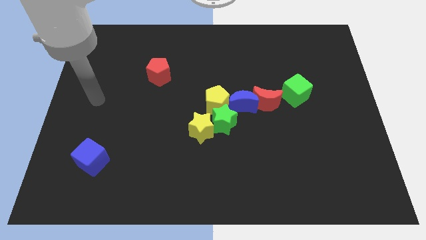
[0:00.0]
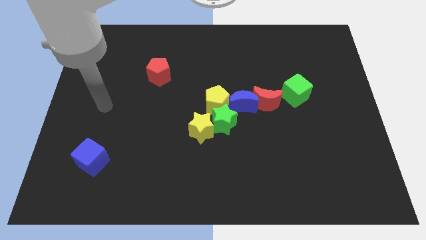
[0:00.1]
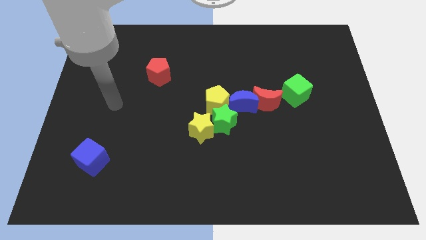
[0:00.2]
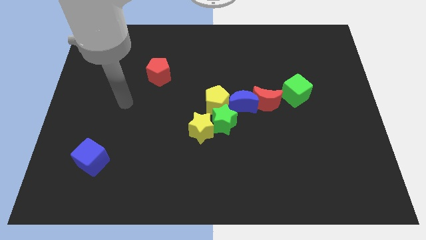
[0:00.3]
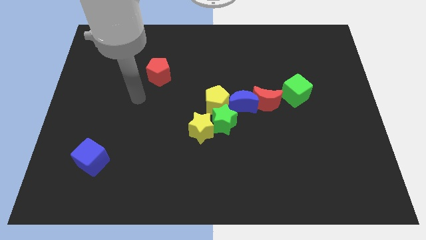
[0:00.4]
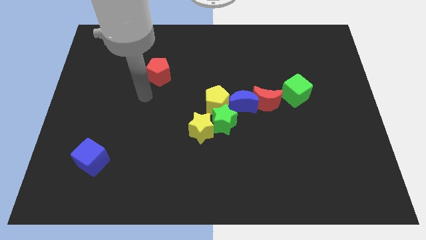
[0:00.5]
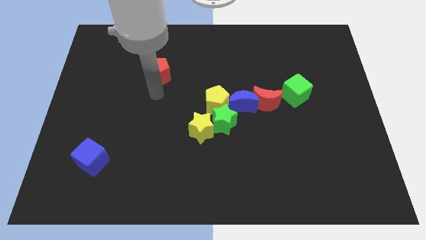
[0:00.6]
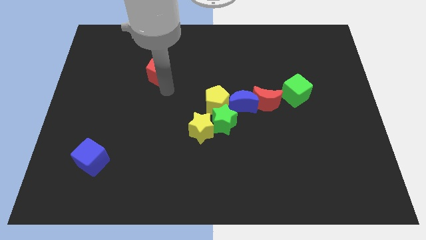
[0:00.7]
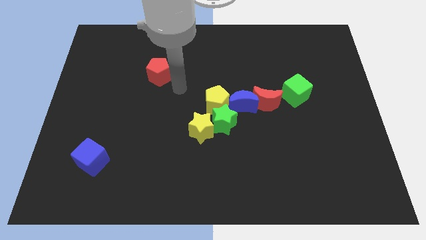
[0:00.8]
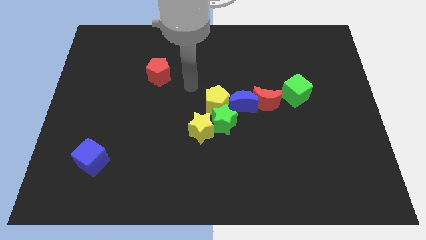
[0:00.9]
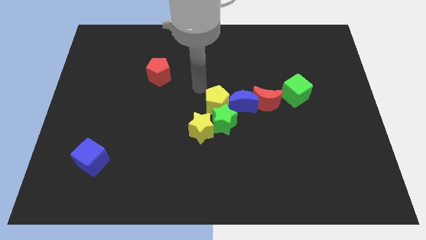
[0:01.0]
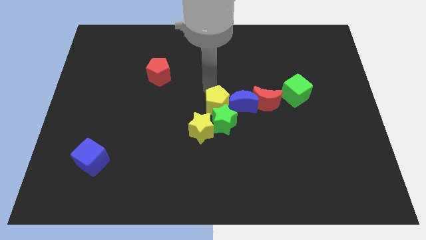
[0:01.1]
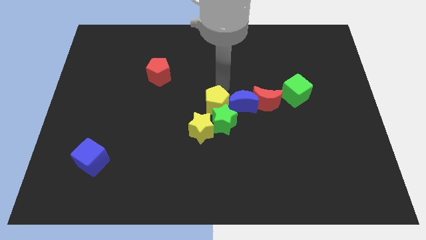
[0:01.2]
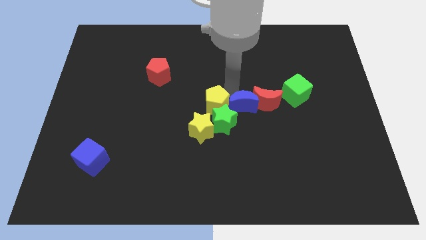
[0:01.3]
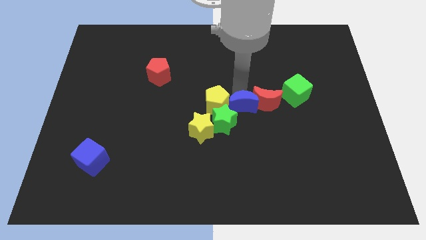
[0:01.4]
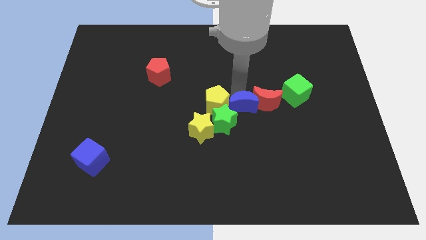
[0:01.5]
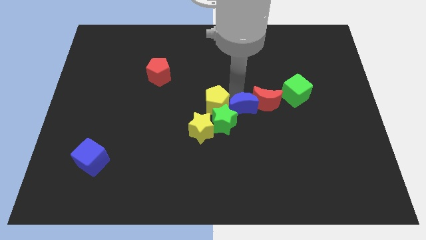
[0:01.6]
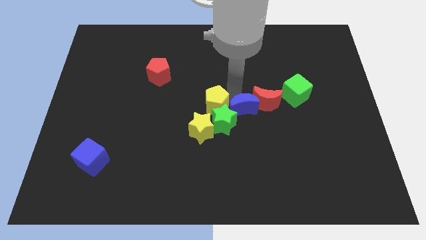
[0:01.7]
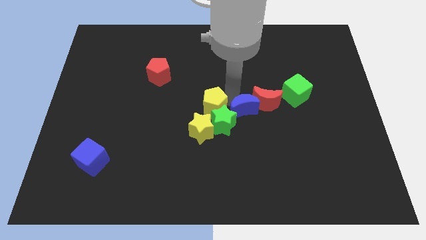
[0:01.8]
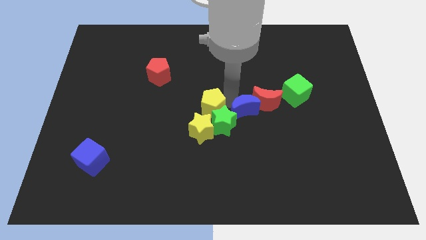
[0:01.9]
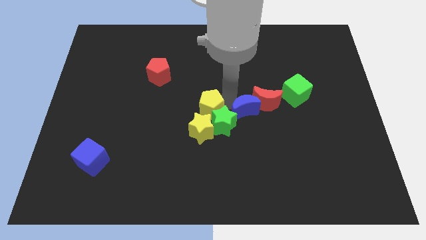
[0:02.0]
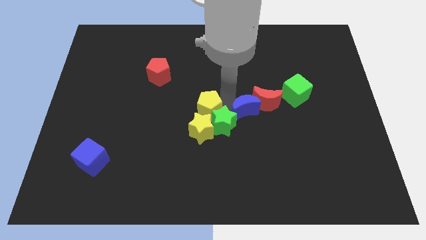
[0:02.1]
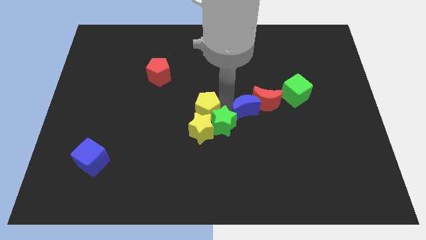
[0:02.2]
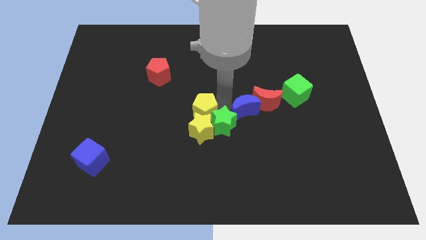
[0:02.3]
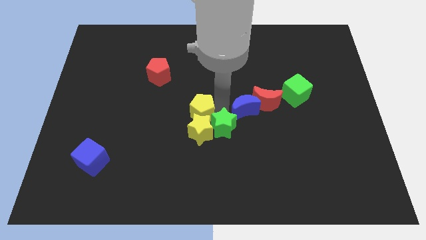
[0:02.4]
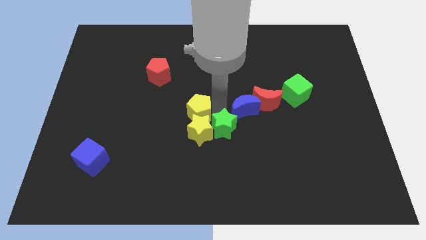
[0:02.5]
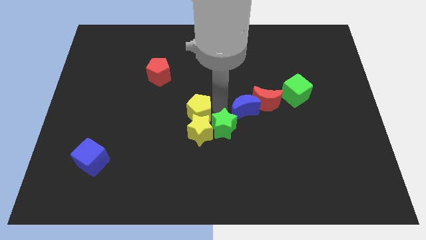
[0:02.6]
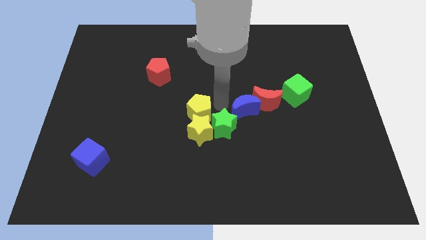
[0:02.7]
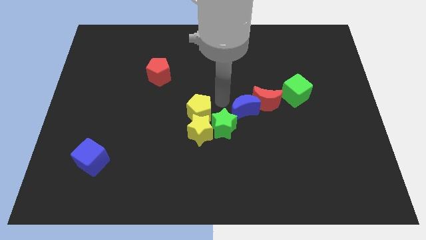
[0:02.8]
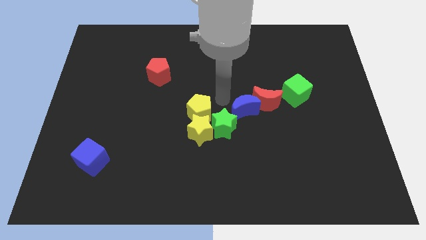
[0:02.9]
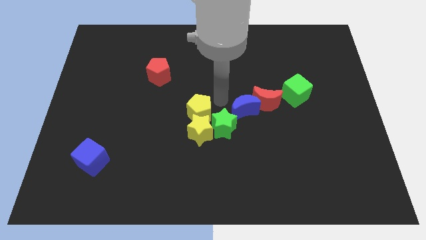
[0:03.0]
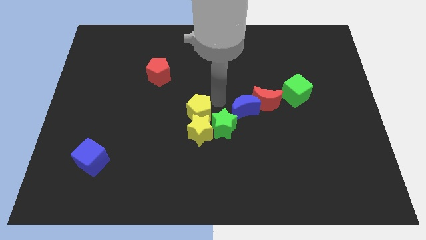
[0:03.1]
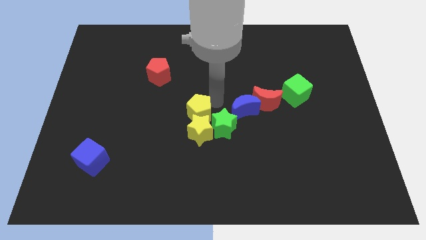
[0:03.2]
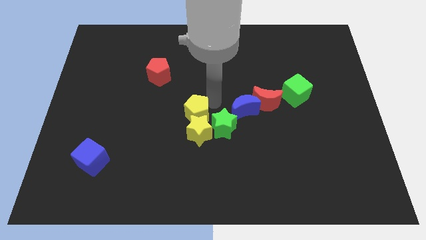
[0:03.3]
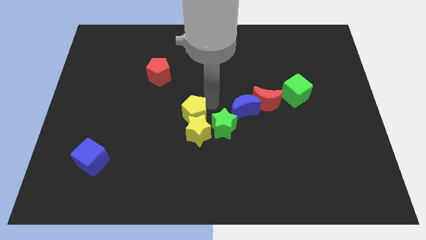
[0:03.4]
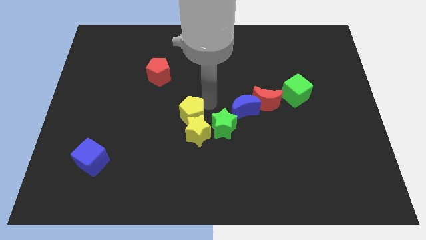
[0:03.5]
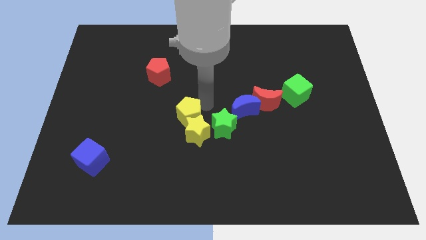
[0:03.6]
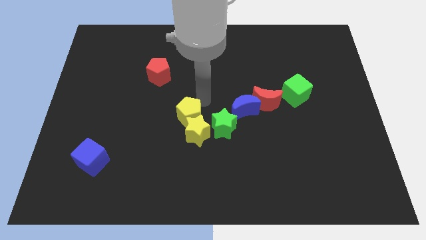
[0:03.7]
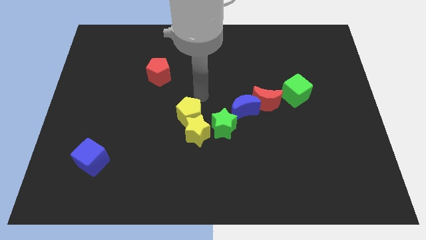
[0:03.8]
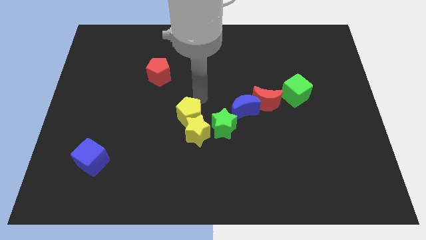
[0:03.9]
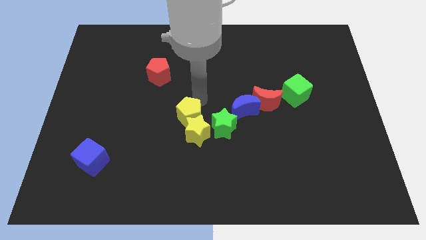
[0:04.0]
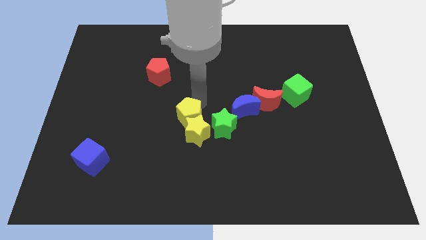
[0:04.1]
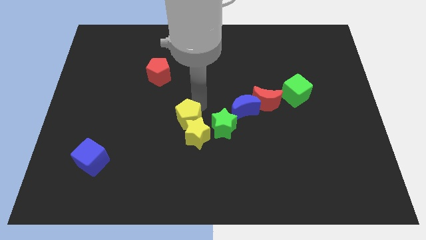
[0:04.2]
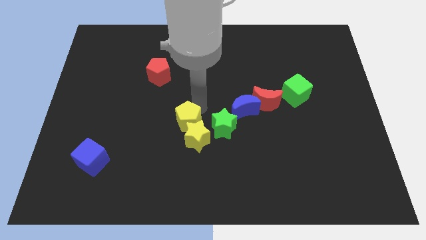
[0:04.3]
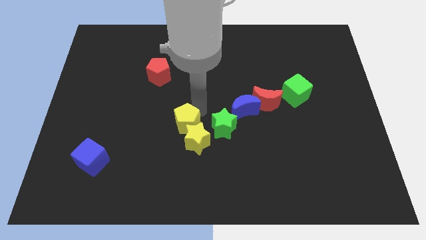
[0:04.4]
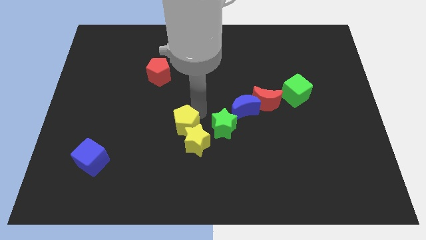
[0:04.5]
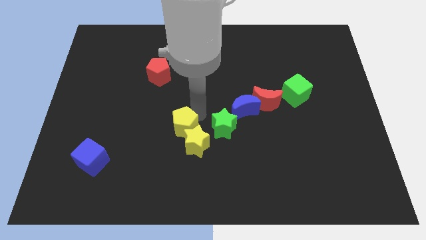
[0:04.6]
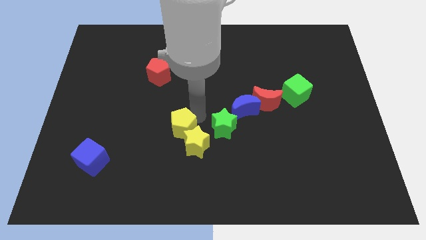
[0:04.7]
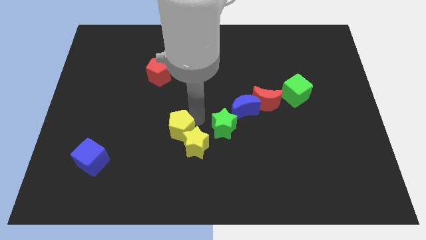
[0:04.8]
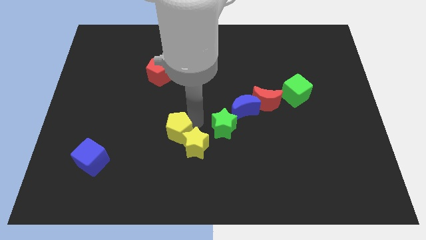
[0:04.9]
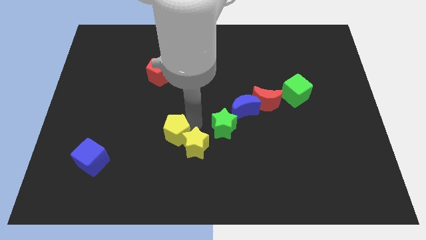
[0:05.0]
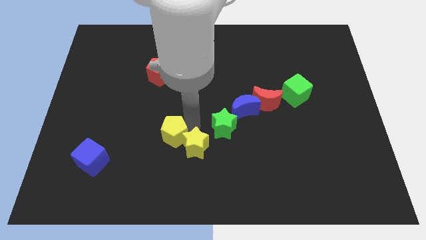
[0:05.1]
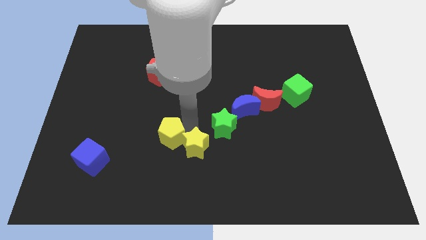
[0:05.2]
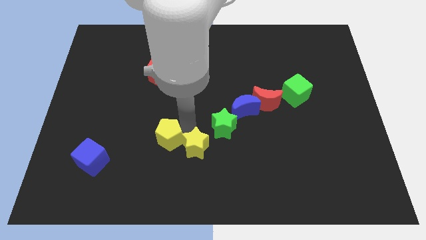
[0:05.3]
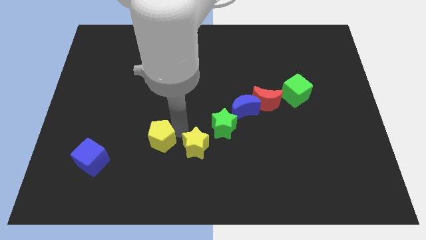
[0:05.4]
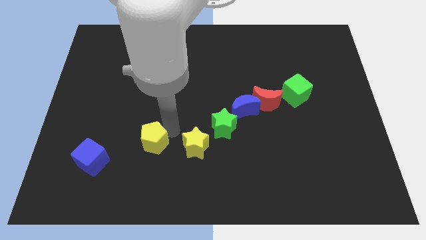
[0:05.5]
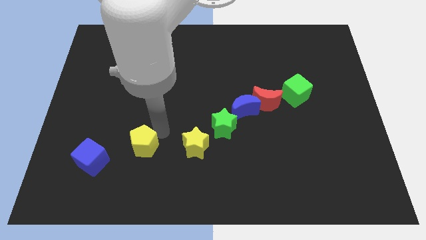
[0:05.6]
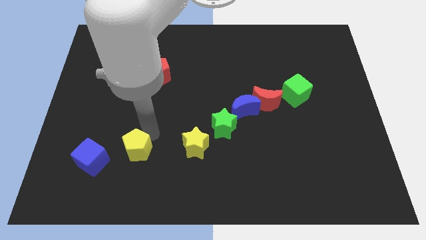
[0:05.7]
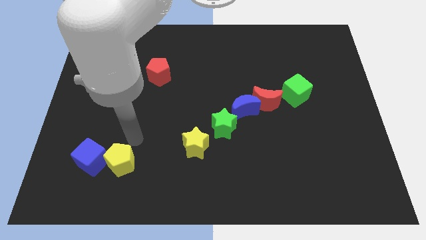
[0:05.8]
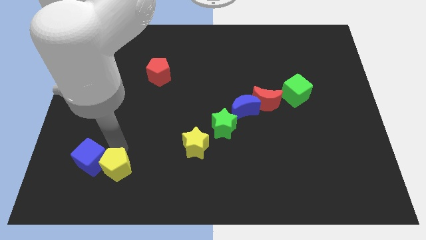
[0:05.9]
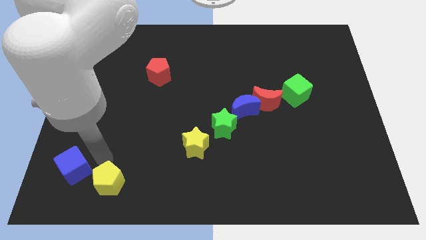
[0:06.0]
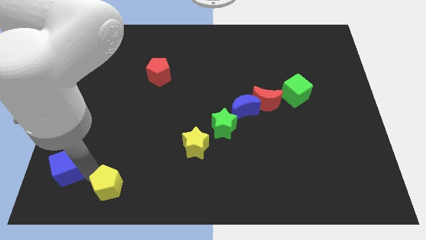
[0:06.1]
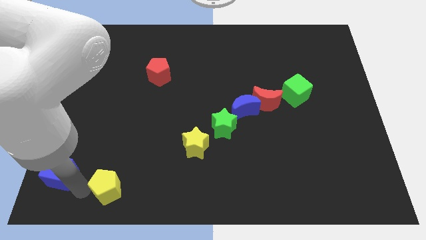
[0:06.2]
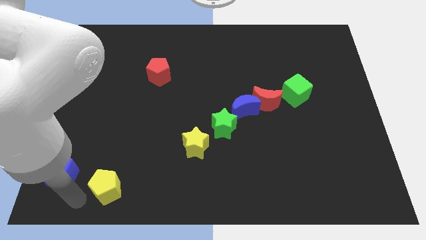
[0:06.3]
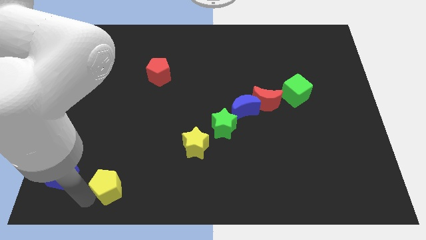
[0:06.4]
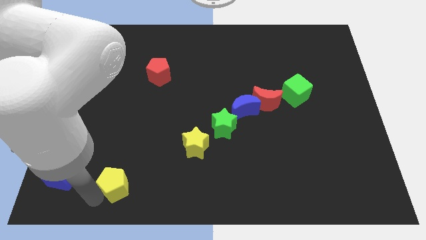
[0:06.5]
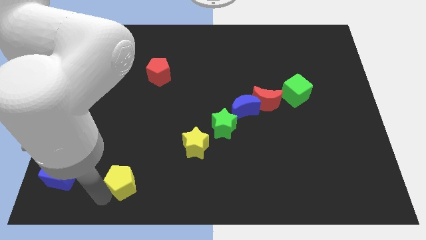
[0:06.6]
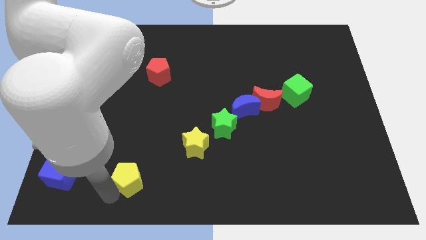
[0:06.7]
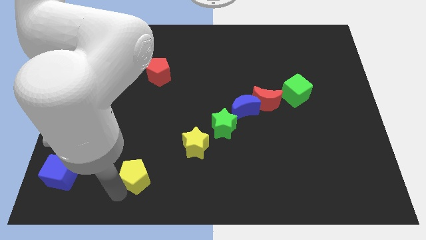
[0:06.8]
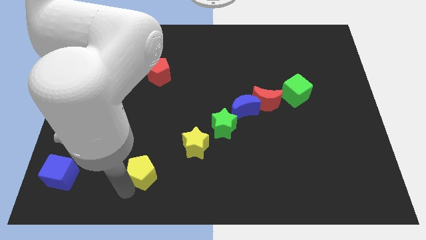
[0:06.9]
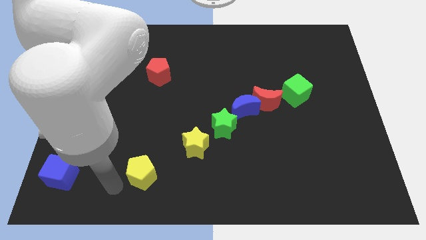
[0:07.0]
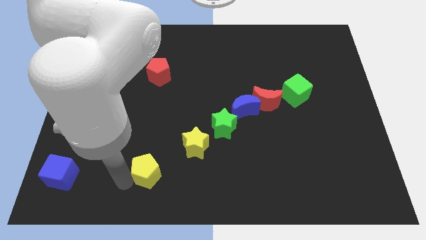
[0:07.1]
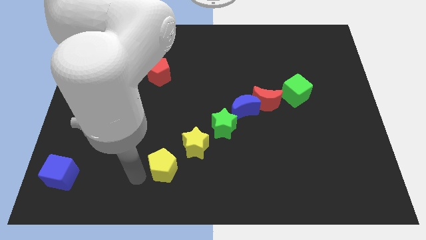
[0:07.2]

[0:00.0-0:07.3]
move the yellow pentagon somewhat downwards

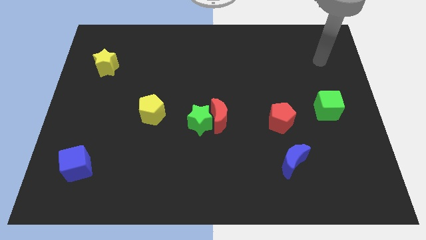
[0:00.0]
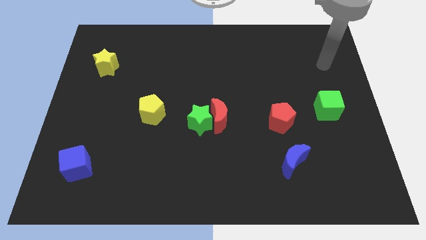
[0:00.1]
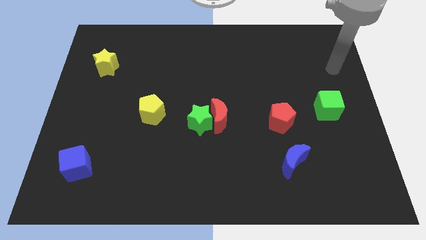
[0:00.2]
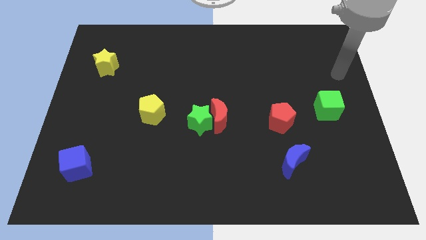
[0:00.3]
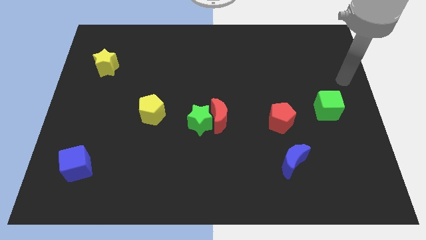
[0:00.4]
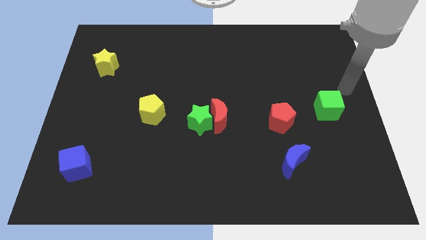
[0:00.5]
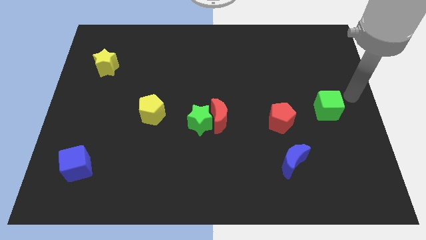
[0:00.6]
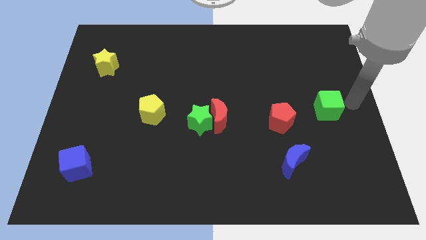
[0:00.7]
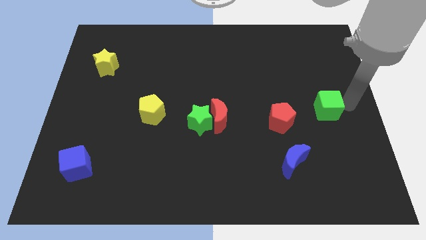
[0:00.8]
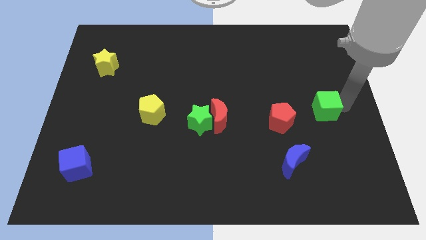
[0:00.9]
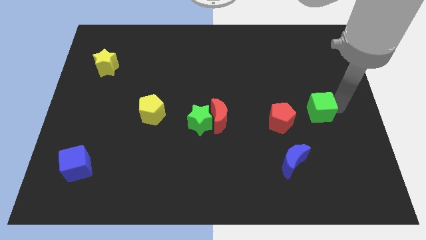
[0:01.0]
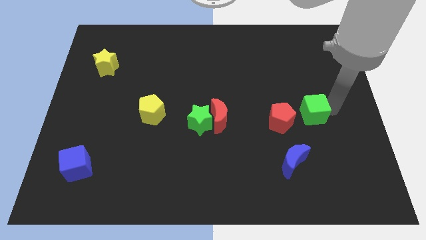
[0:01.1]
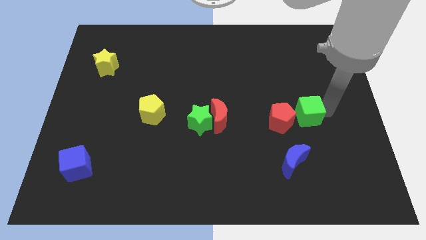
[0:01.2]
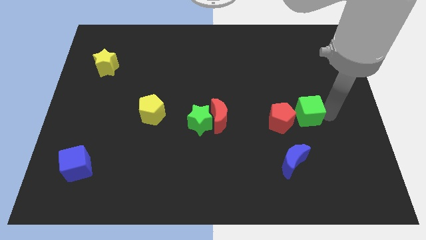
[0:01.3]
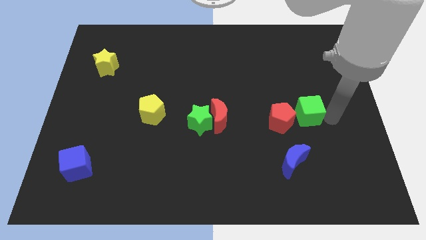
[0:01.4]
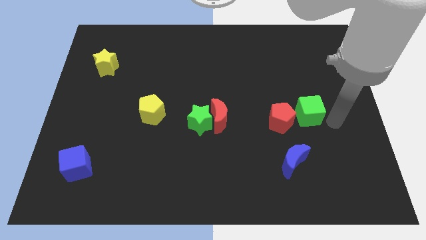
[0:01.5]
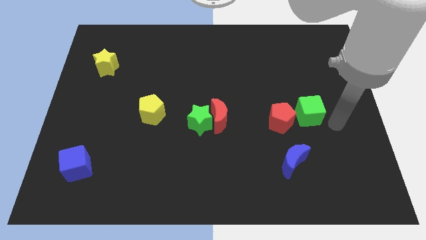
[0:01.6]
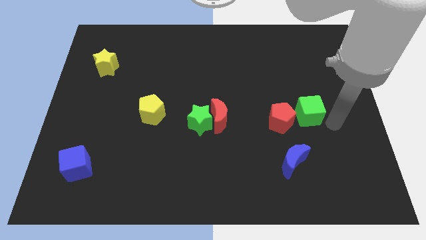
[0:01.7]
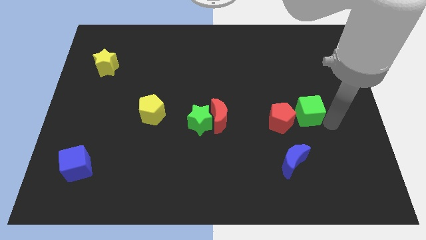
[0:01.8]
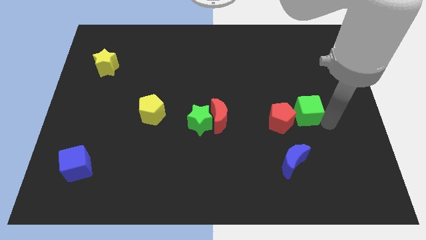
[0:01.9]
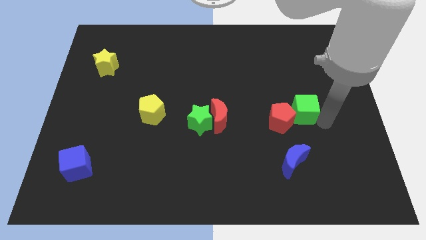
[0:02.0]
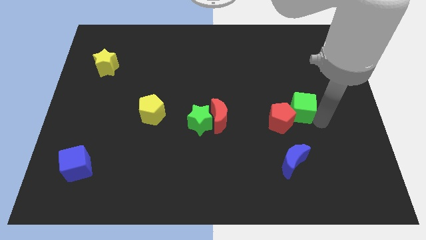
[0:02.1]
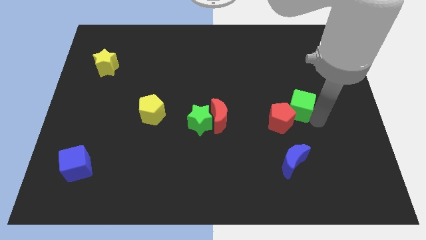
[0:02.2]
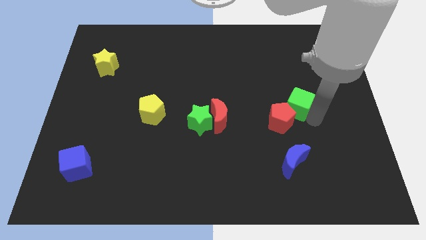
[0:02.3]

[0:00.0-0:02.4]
slide the green cube a little bit left
